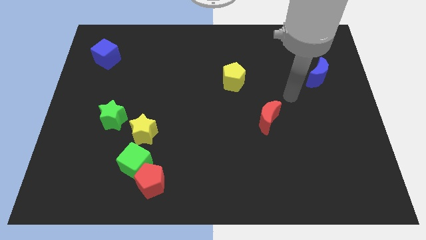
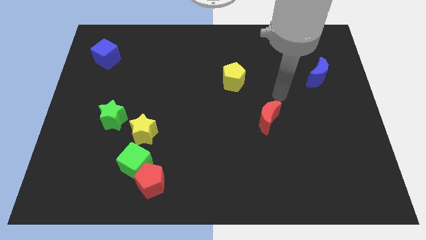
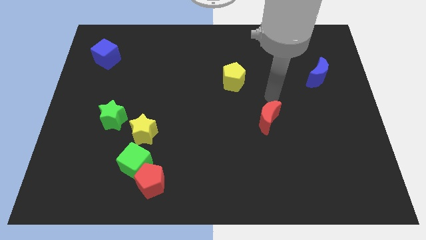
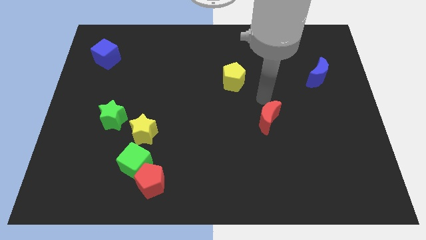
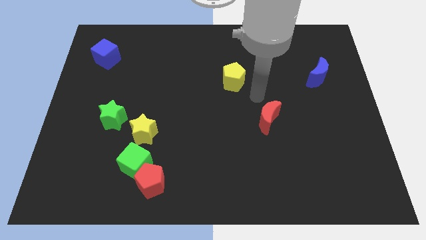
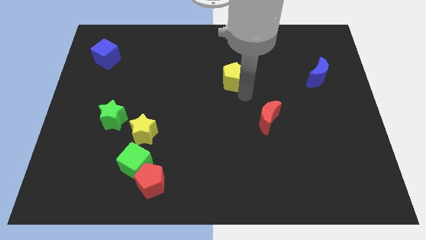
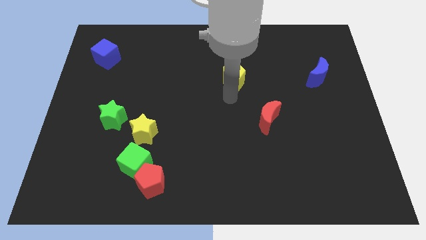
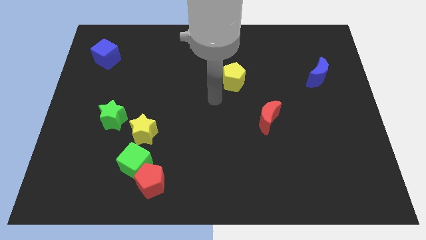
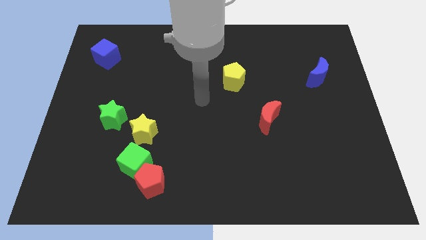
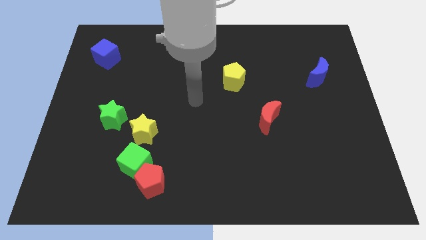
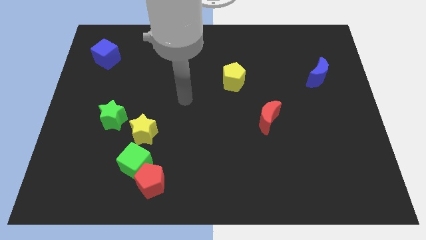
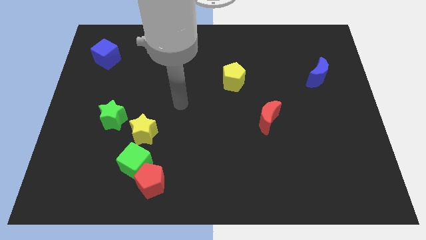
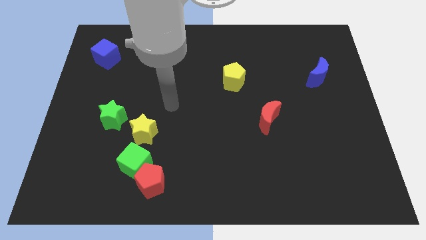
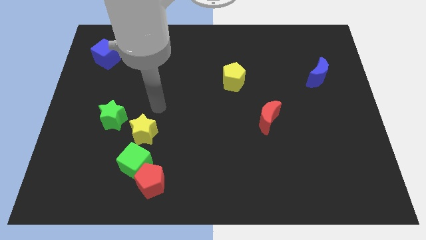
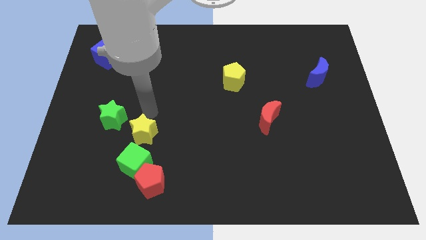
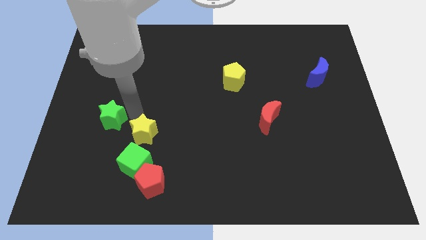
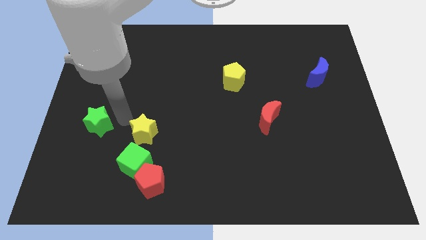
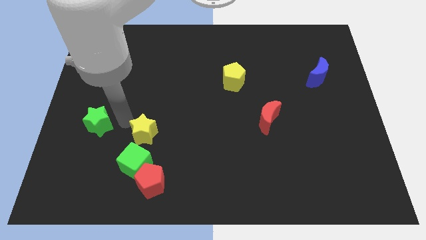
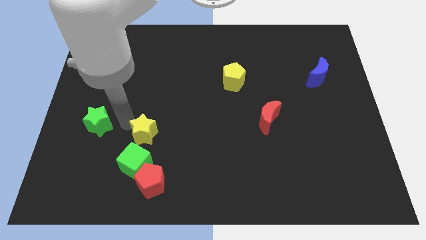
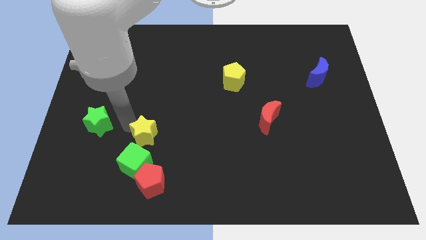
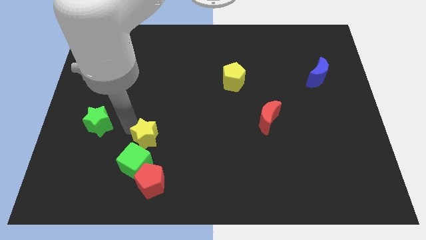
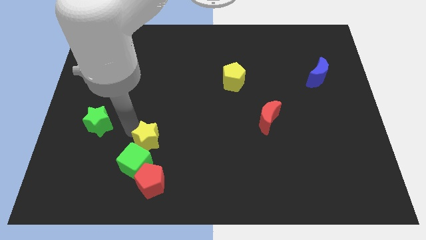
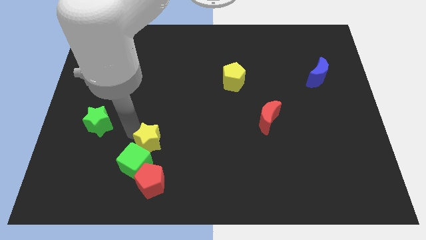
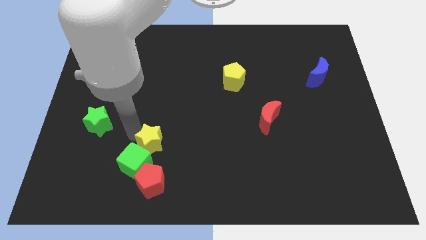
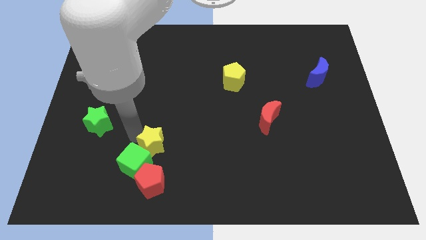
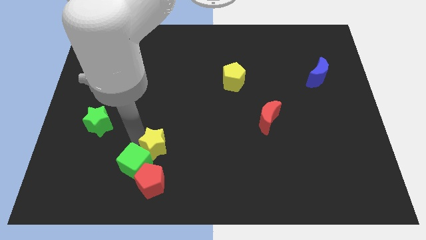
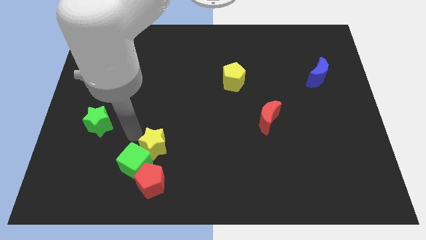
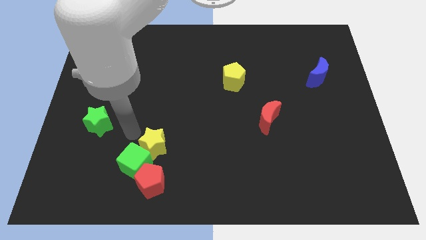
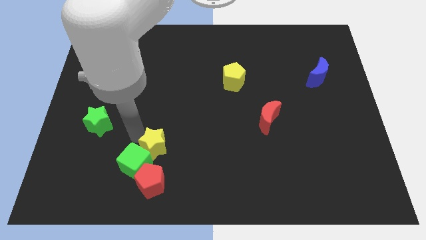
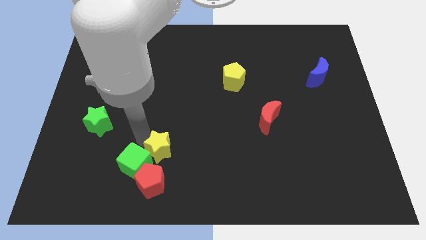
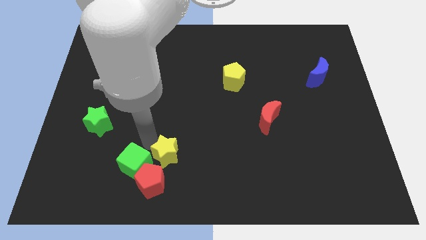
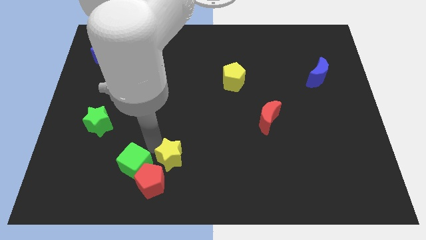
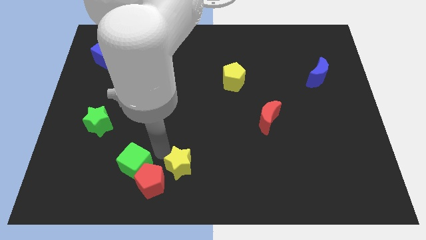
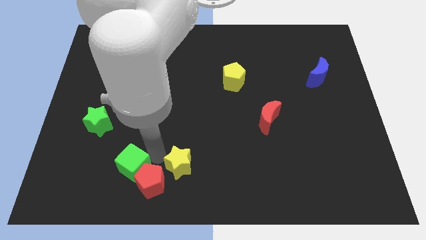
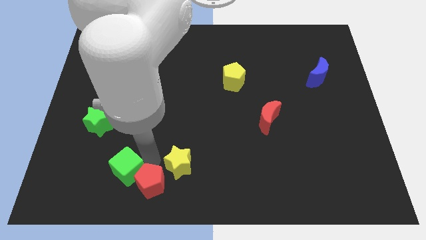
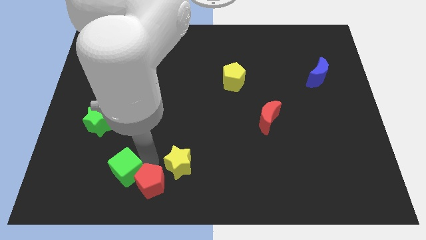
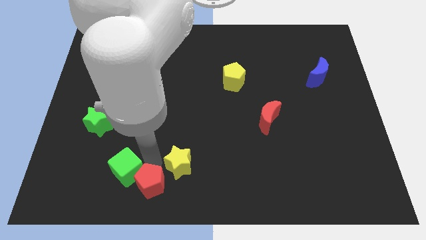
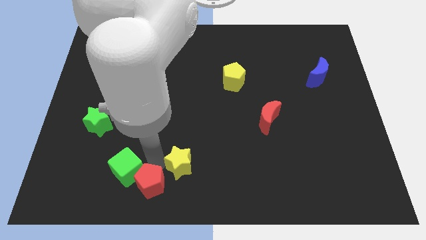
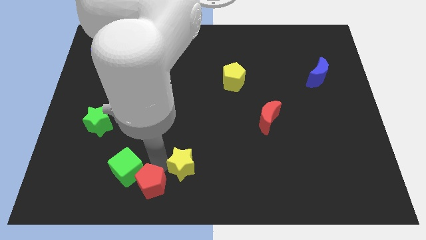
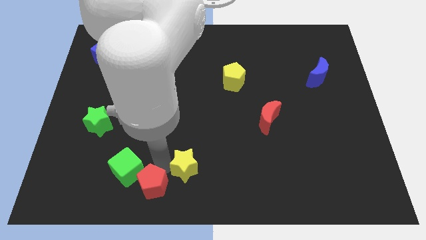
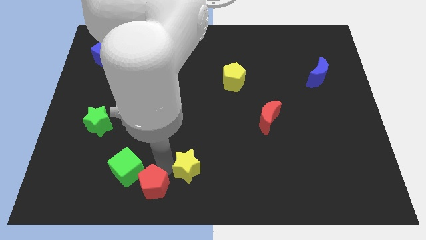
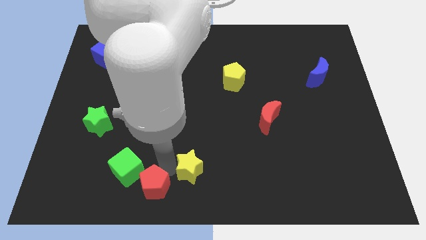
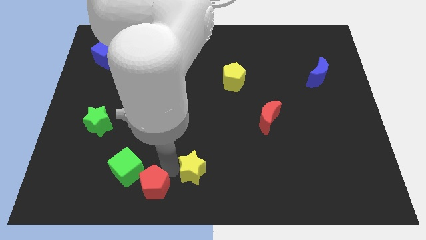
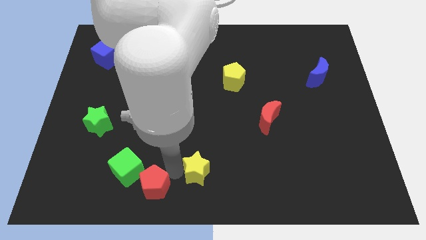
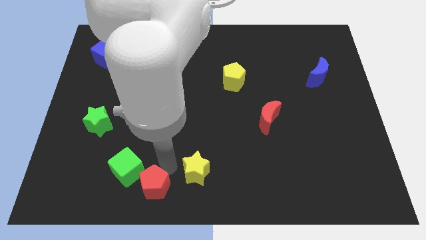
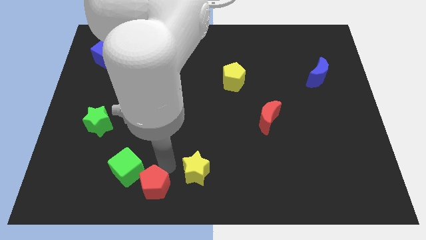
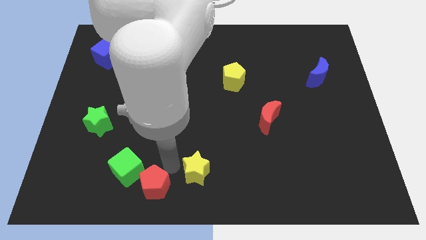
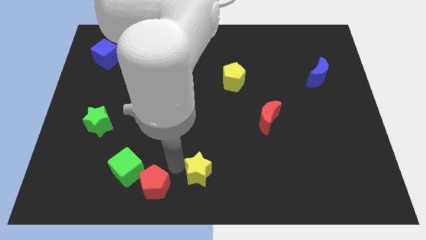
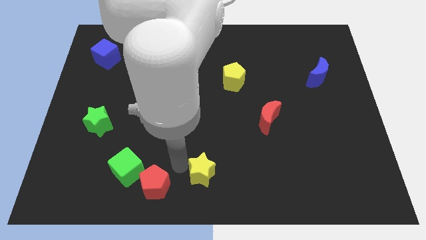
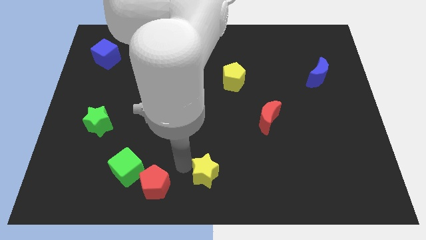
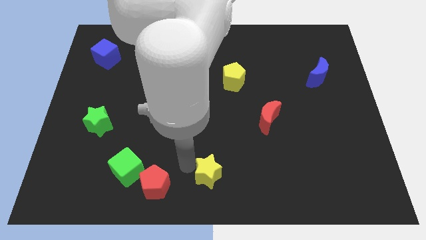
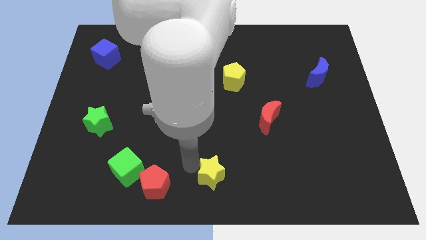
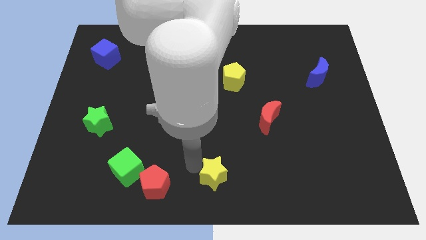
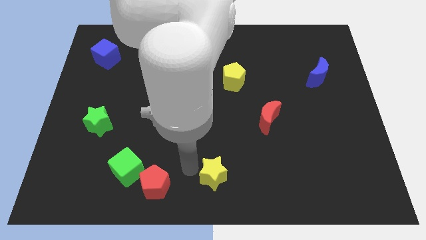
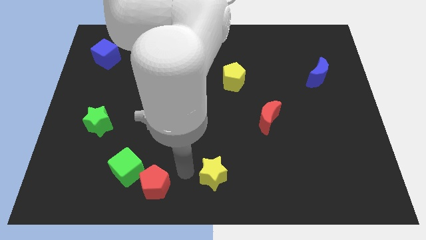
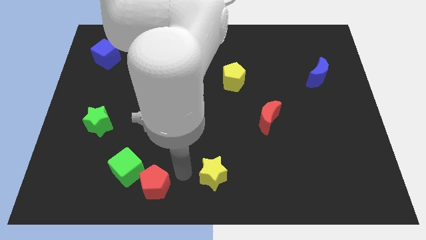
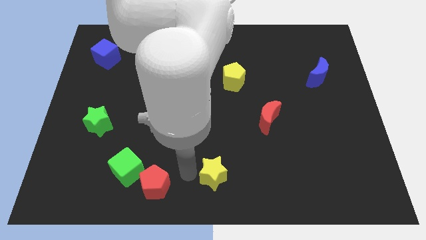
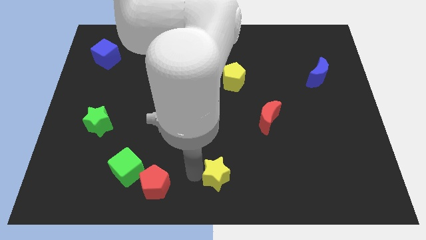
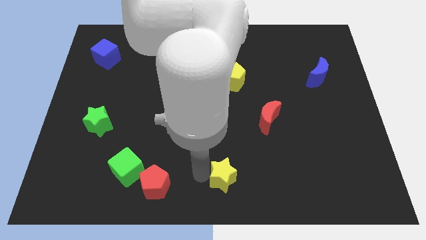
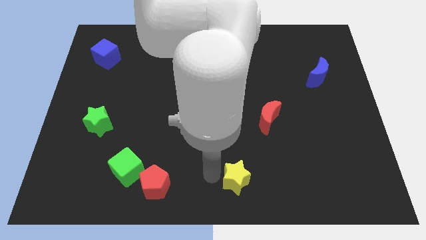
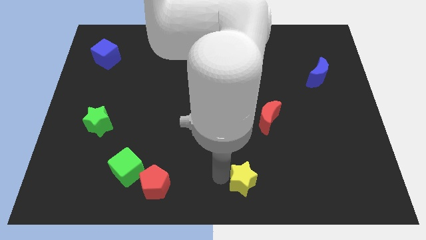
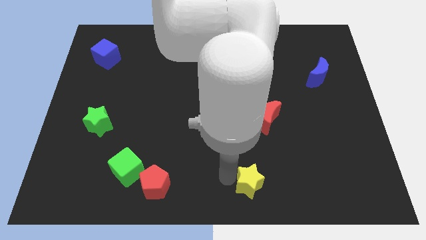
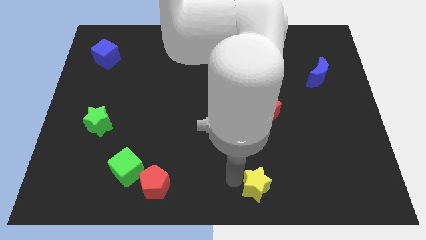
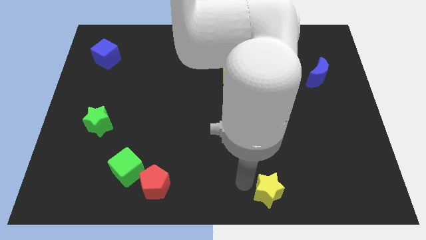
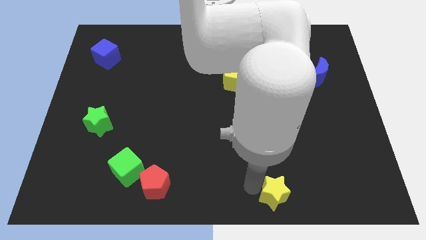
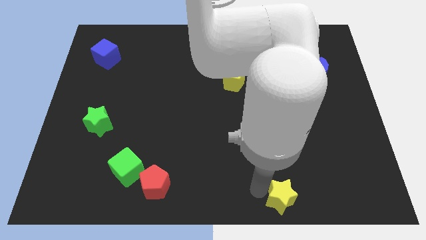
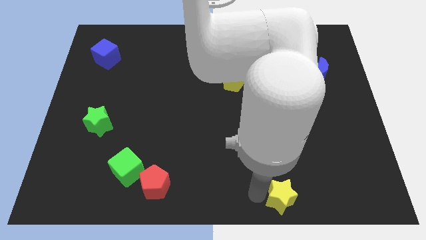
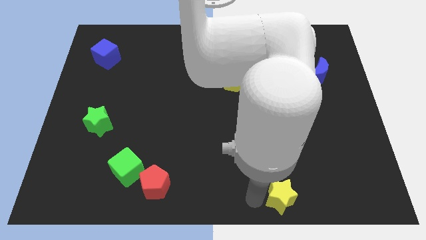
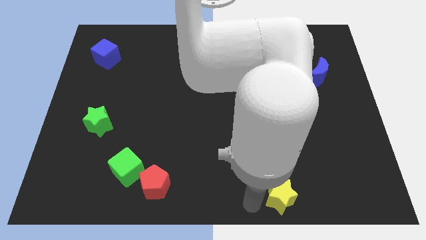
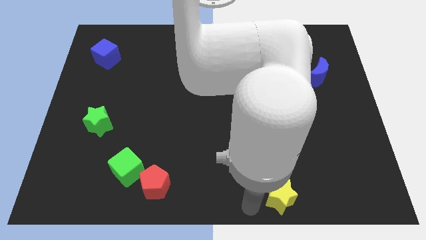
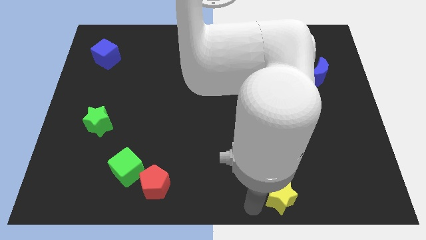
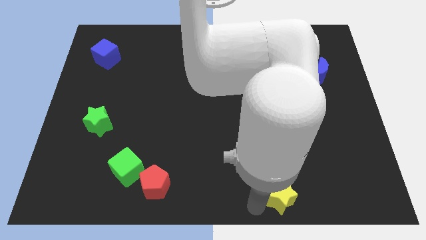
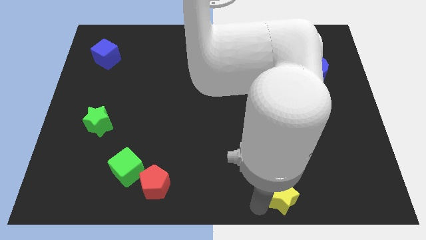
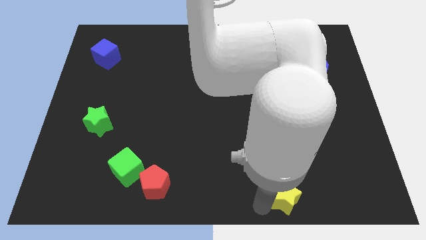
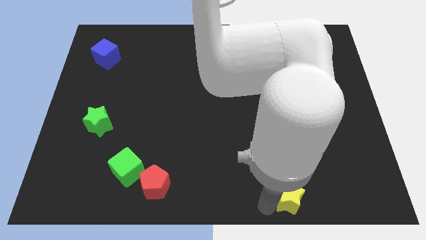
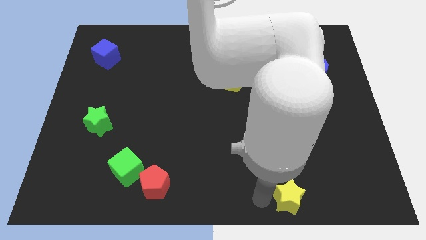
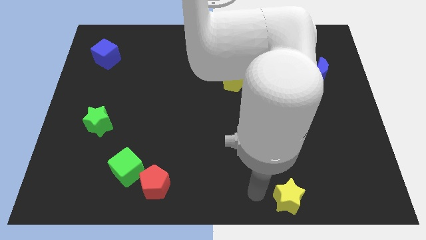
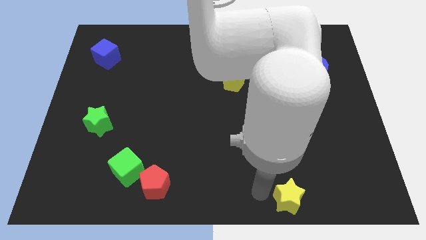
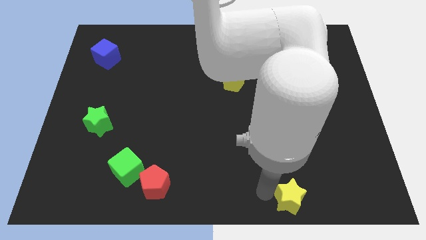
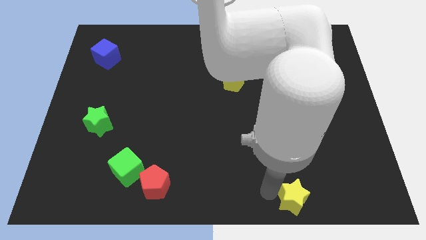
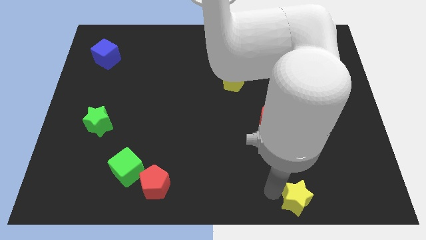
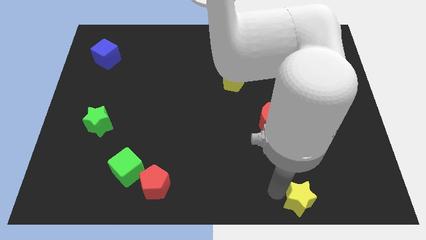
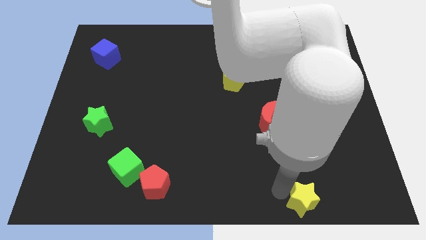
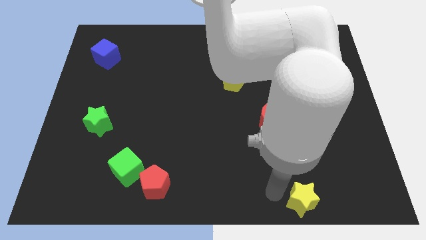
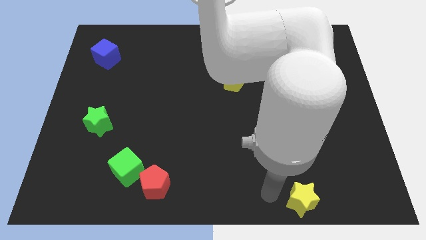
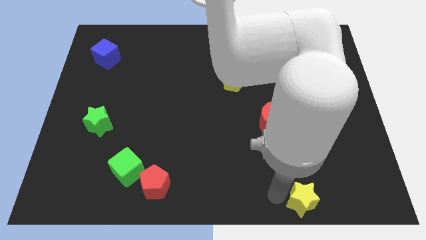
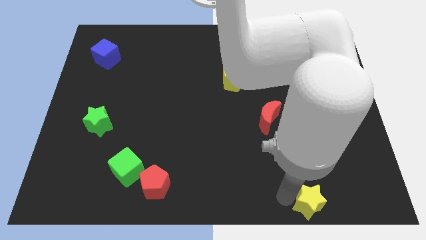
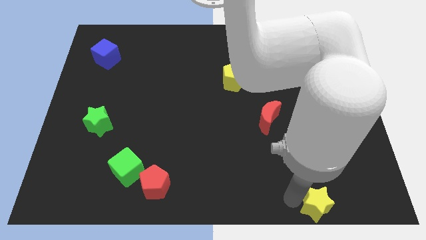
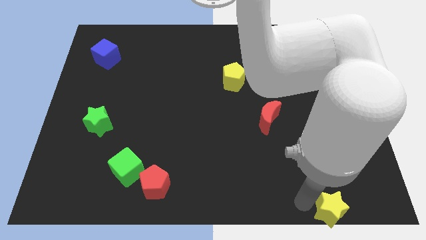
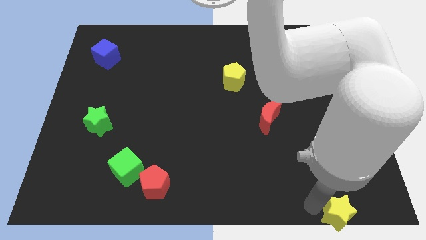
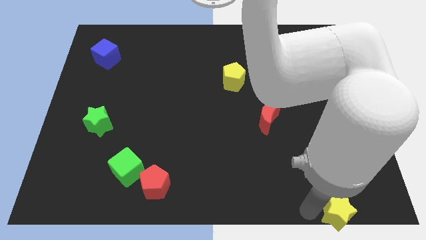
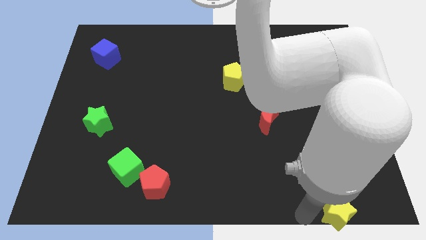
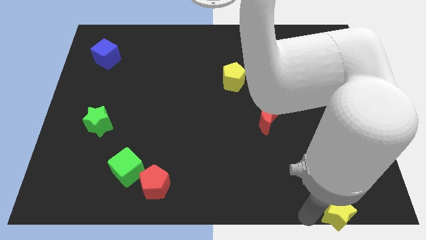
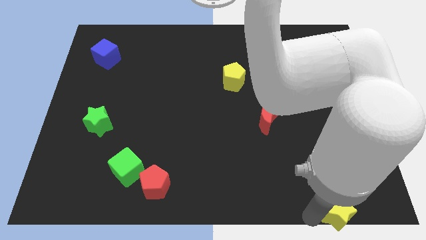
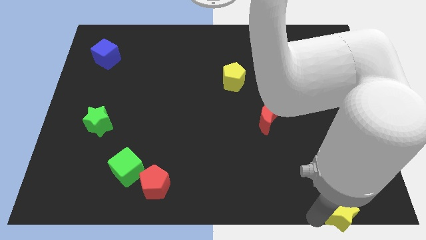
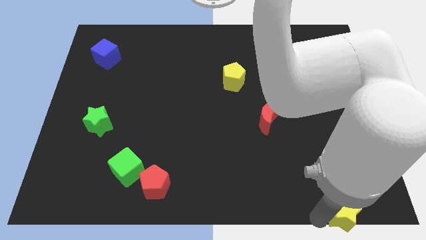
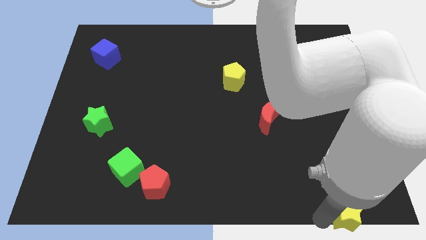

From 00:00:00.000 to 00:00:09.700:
push the yellow star to the lower right corner
